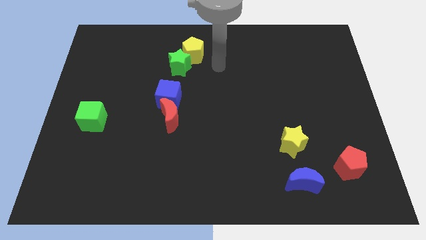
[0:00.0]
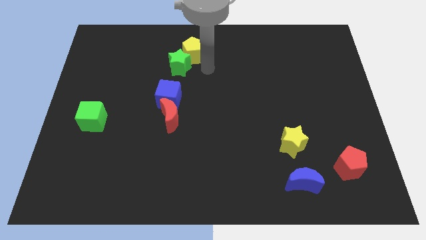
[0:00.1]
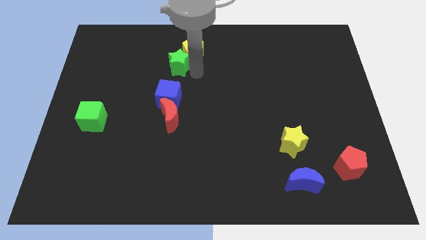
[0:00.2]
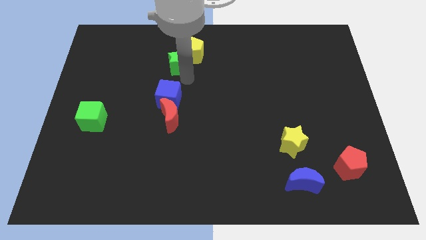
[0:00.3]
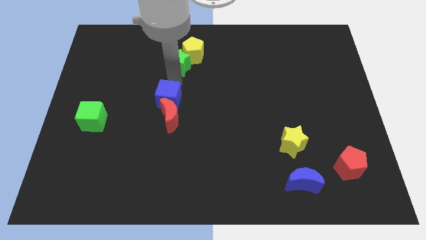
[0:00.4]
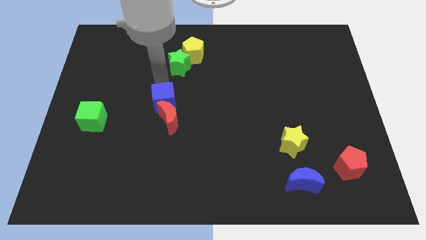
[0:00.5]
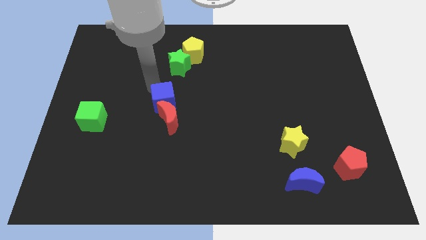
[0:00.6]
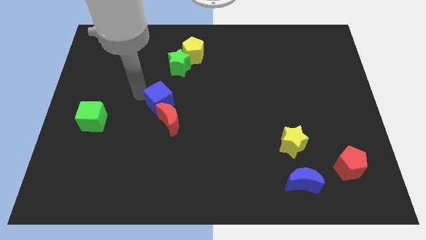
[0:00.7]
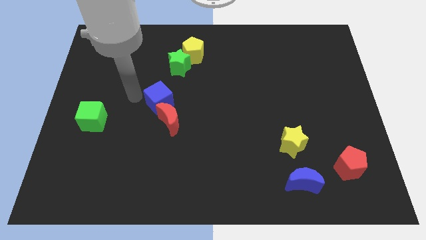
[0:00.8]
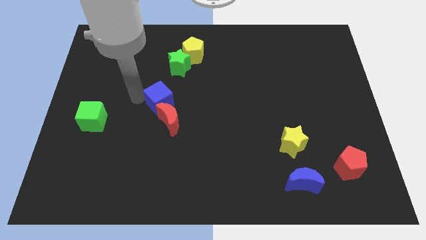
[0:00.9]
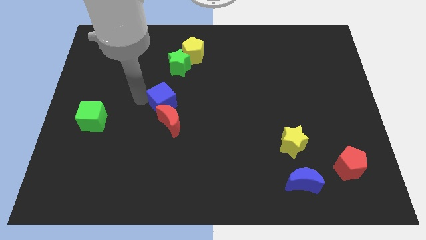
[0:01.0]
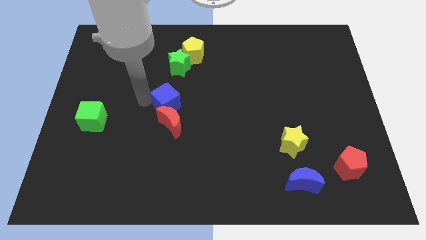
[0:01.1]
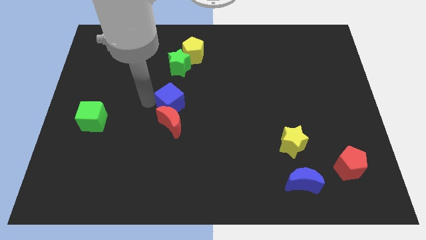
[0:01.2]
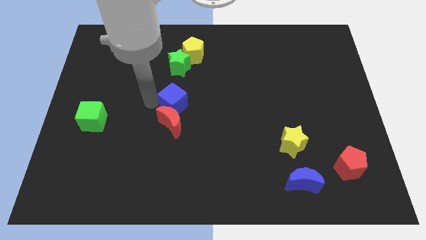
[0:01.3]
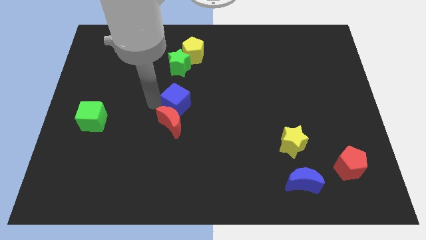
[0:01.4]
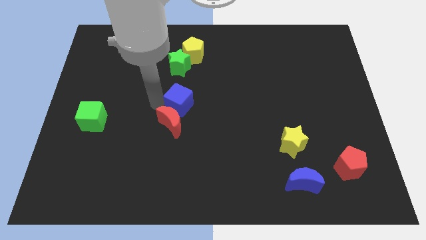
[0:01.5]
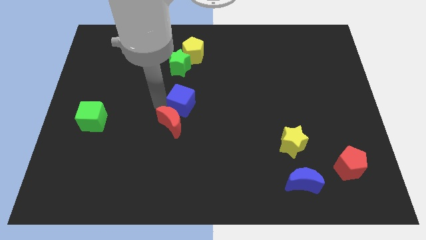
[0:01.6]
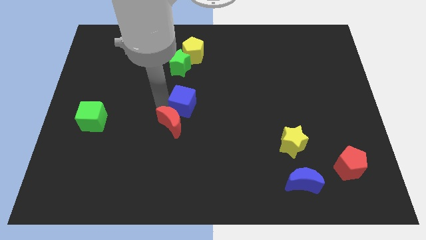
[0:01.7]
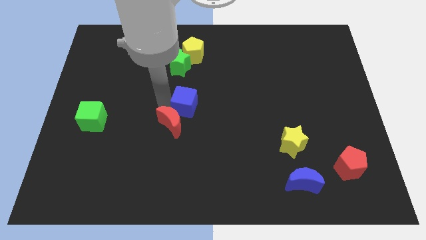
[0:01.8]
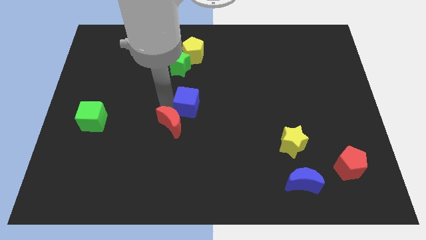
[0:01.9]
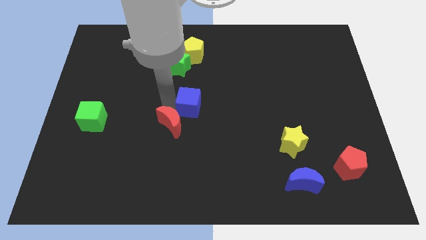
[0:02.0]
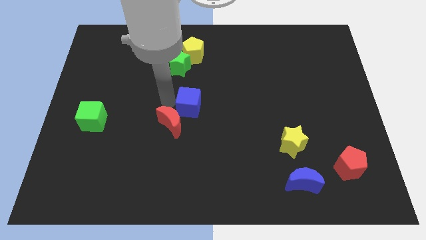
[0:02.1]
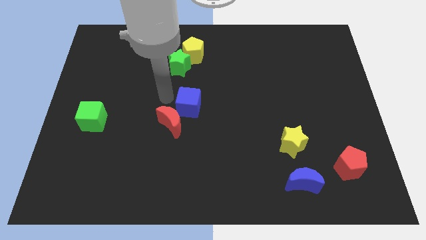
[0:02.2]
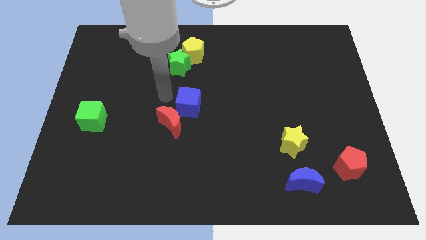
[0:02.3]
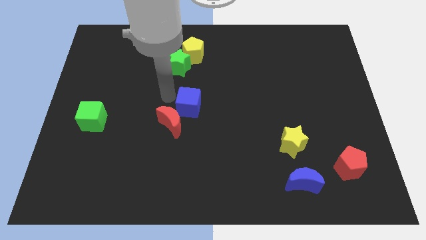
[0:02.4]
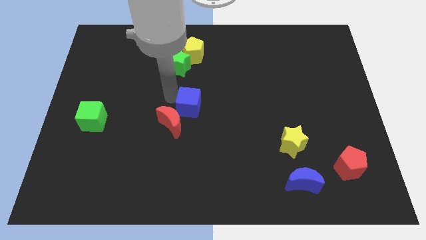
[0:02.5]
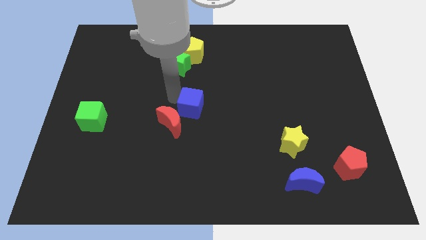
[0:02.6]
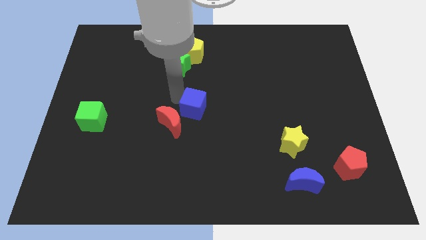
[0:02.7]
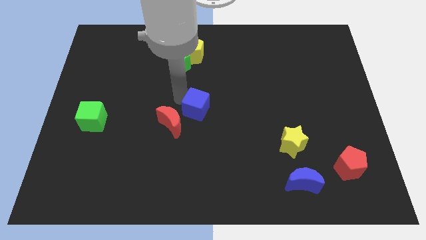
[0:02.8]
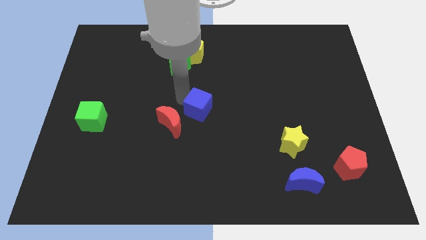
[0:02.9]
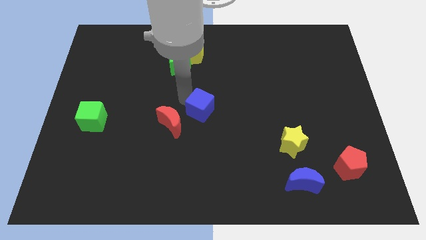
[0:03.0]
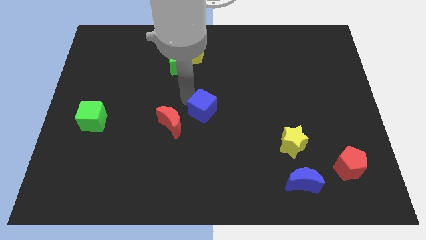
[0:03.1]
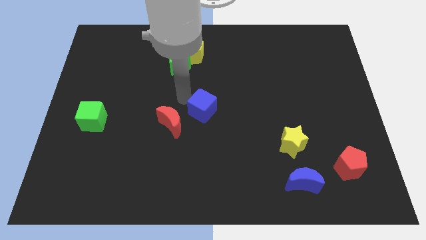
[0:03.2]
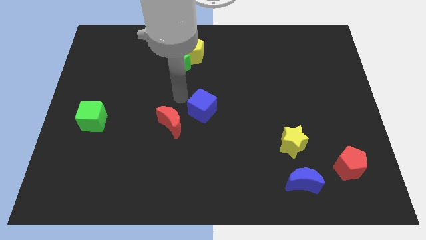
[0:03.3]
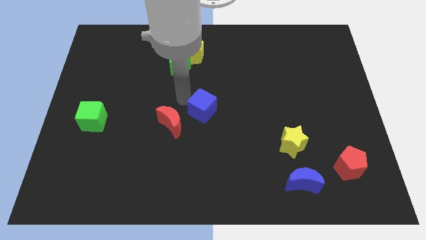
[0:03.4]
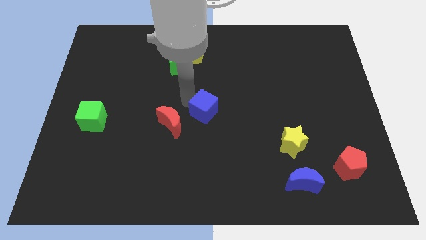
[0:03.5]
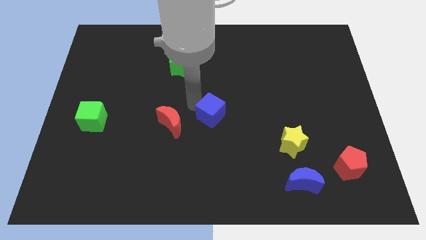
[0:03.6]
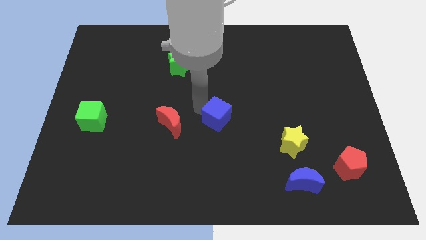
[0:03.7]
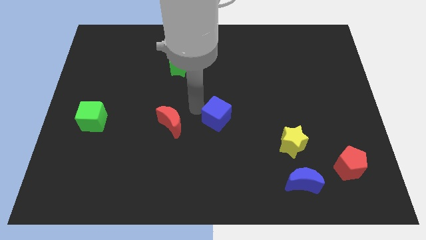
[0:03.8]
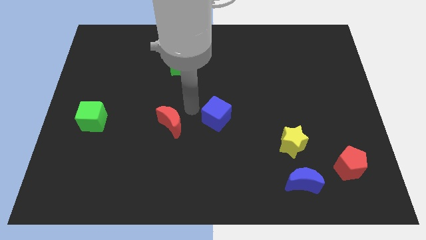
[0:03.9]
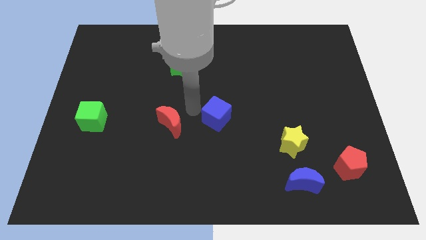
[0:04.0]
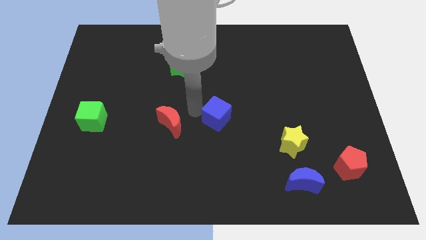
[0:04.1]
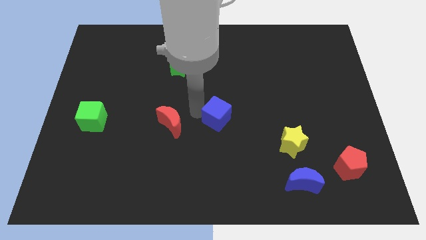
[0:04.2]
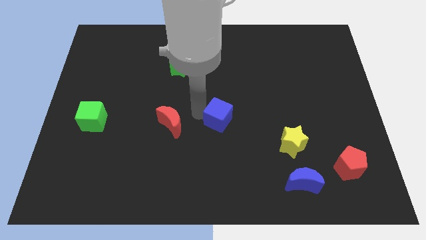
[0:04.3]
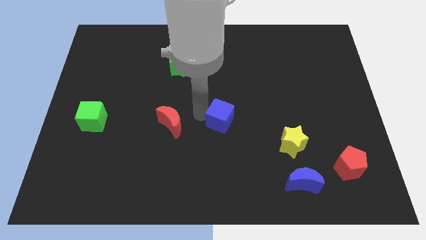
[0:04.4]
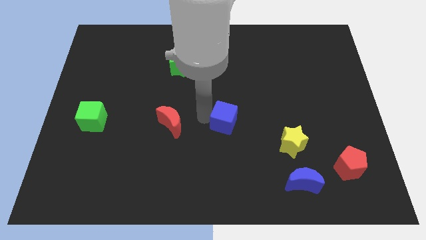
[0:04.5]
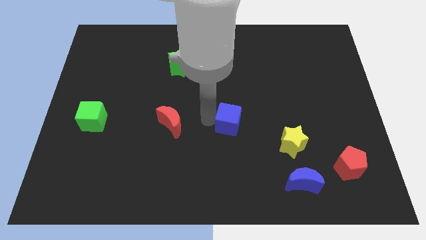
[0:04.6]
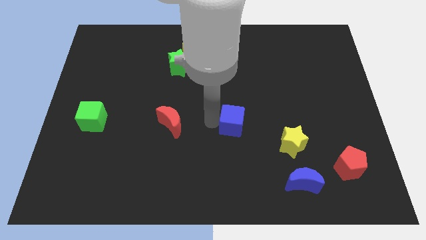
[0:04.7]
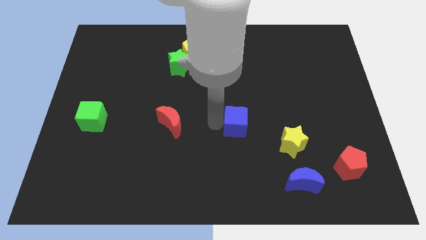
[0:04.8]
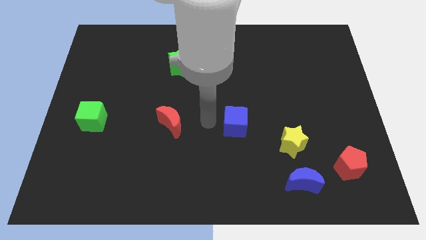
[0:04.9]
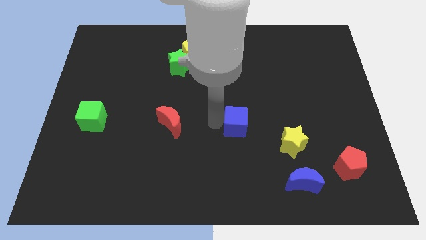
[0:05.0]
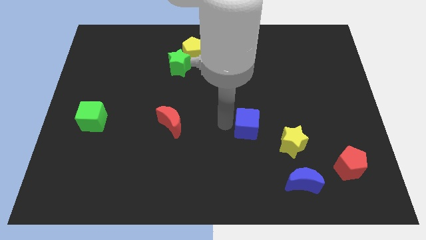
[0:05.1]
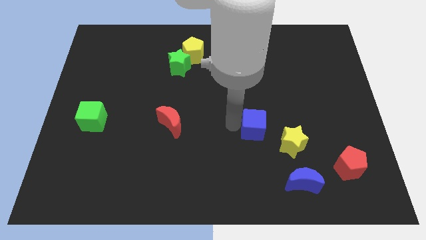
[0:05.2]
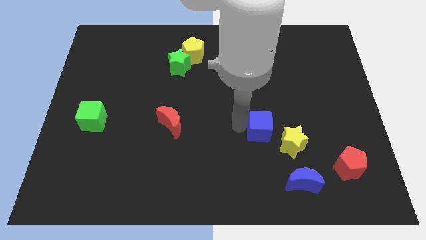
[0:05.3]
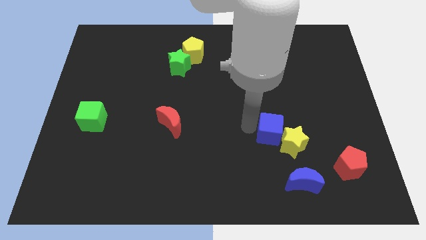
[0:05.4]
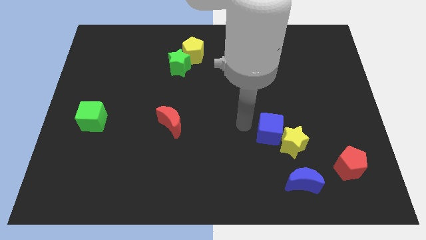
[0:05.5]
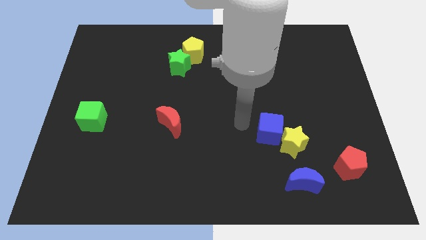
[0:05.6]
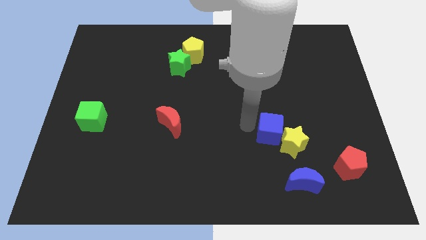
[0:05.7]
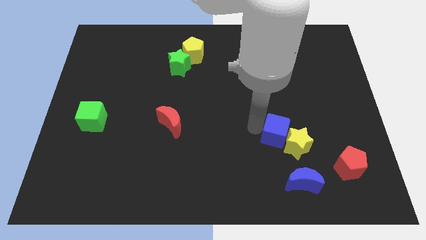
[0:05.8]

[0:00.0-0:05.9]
put the blue cube to the top of the blue moon

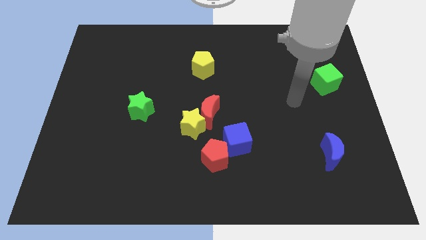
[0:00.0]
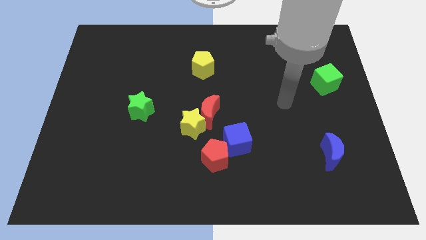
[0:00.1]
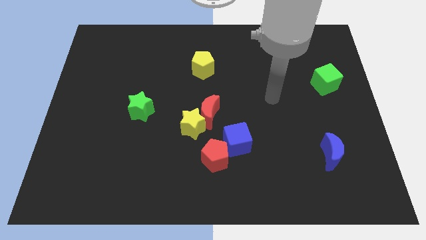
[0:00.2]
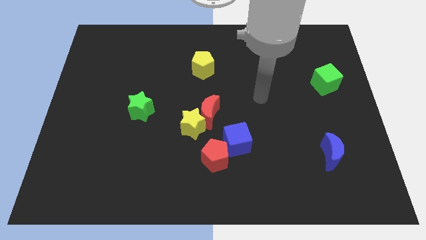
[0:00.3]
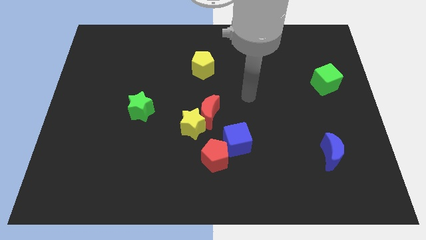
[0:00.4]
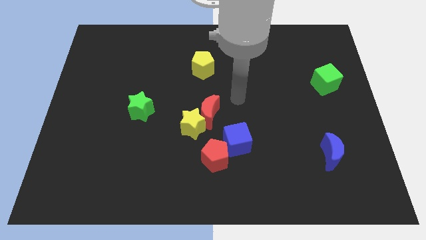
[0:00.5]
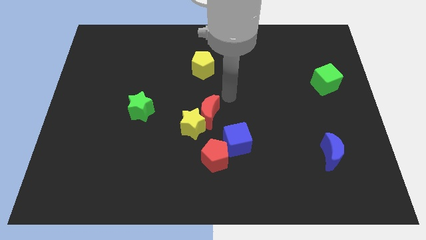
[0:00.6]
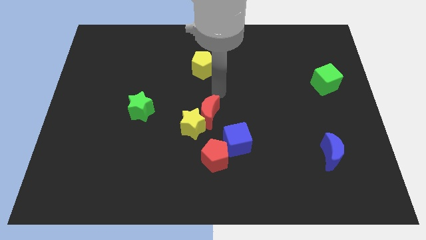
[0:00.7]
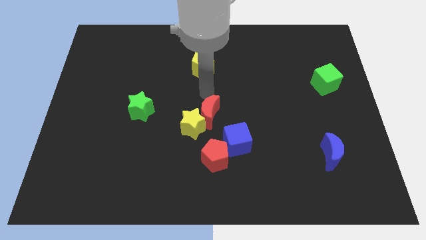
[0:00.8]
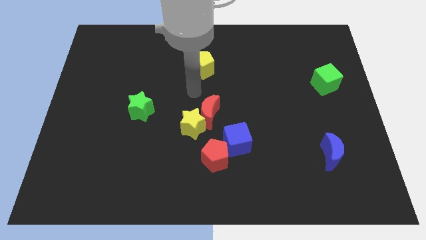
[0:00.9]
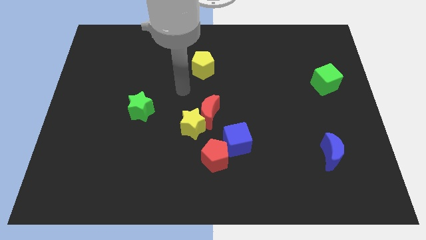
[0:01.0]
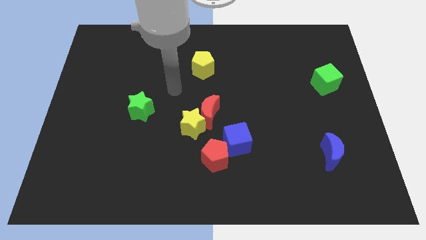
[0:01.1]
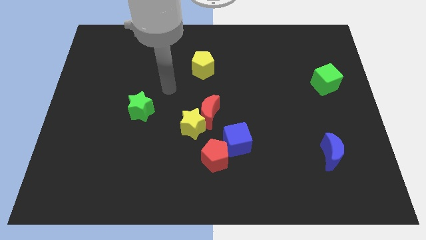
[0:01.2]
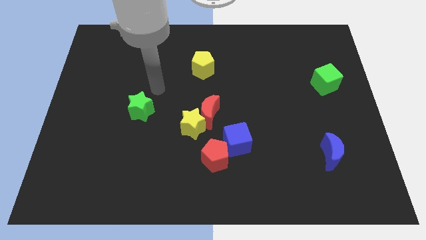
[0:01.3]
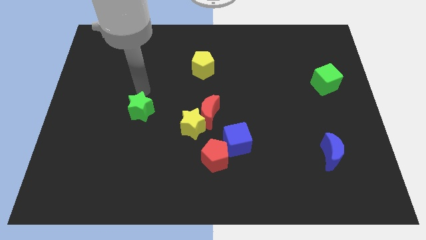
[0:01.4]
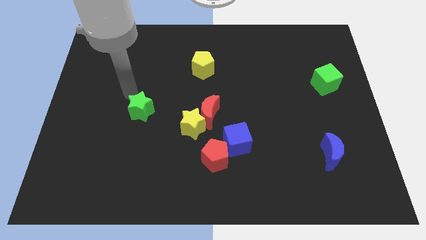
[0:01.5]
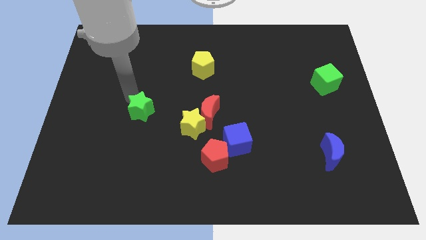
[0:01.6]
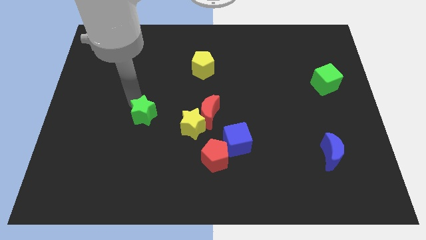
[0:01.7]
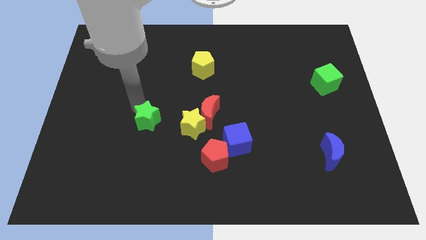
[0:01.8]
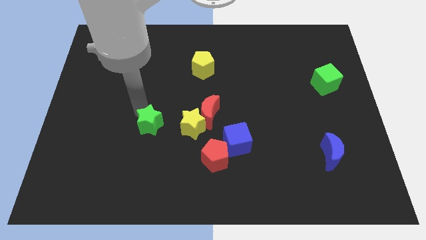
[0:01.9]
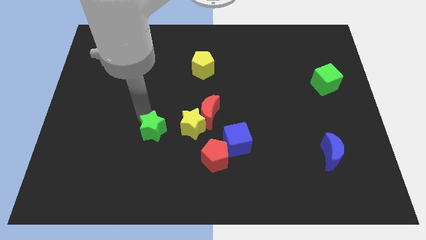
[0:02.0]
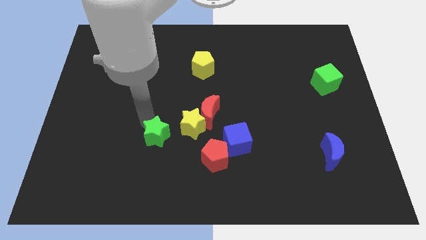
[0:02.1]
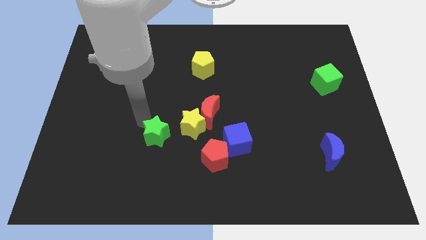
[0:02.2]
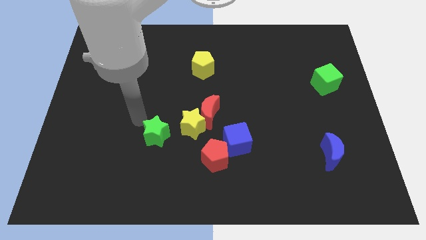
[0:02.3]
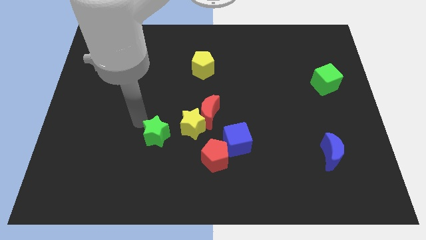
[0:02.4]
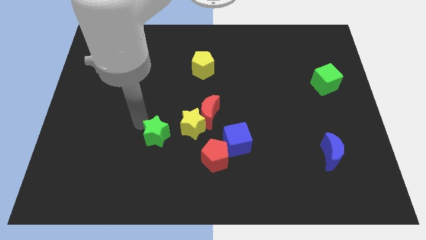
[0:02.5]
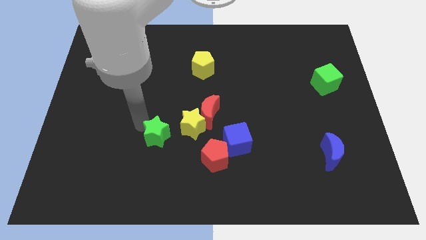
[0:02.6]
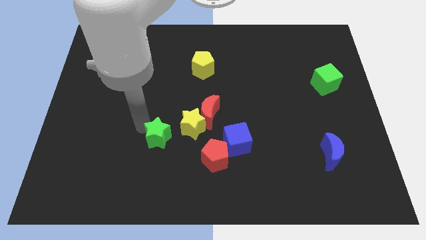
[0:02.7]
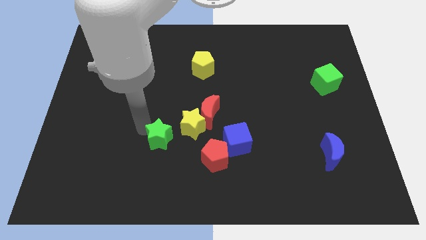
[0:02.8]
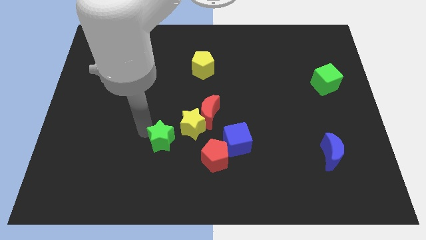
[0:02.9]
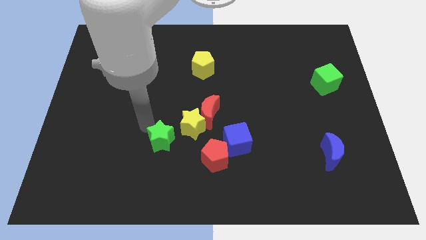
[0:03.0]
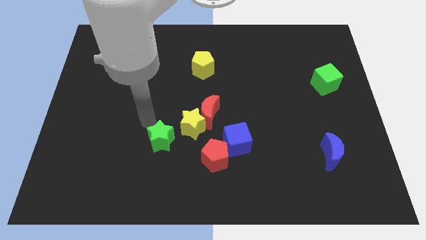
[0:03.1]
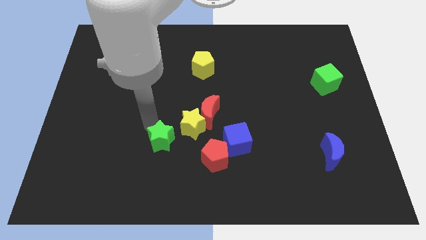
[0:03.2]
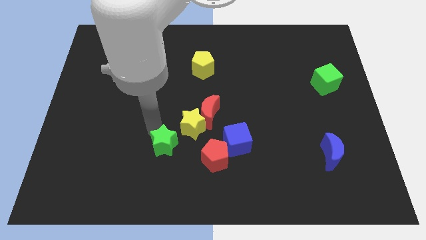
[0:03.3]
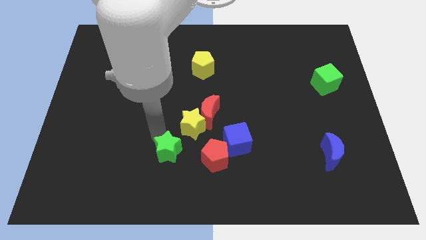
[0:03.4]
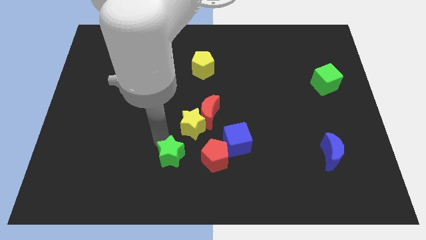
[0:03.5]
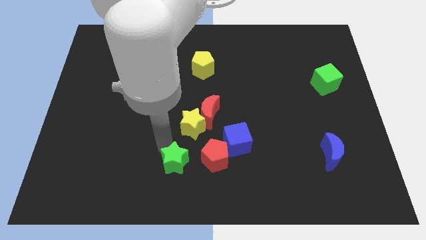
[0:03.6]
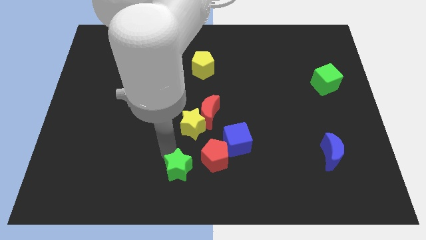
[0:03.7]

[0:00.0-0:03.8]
move the green star to the bottom left of the red pentagon
